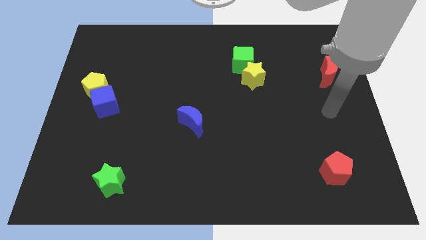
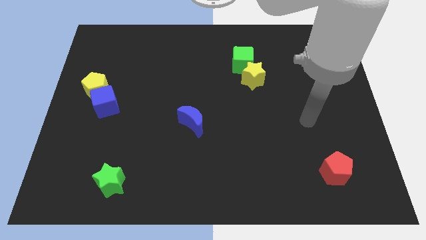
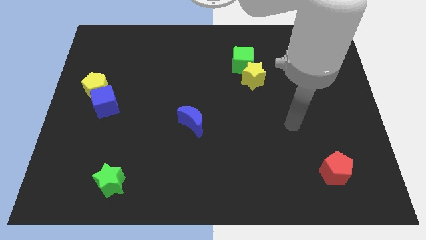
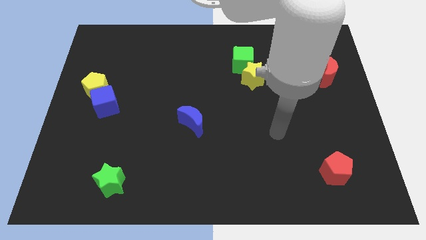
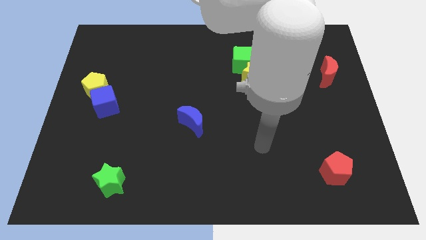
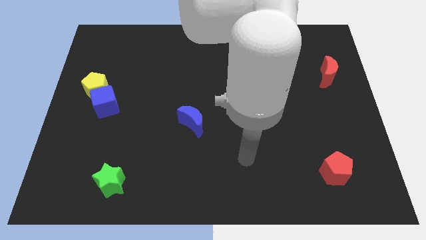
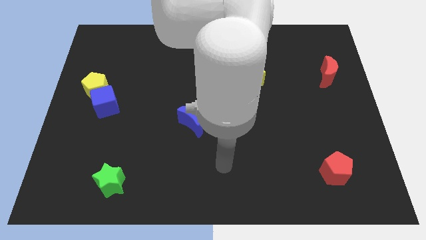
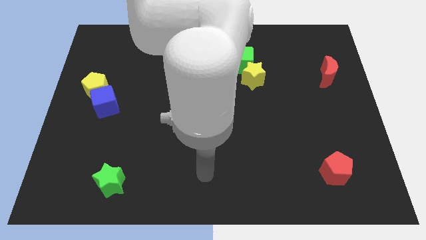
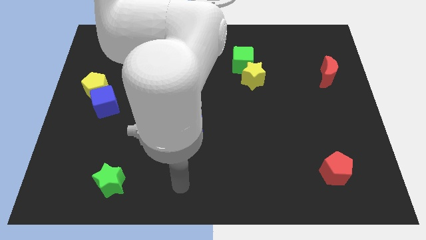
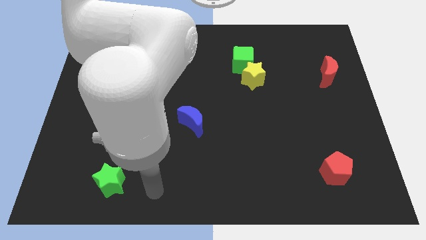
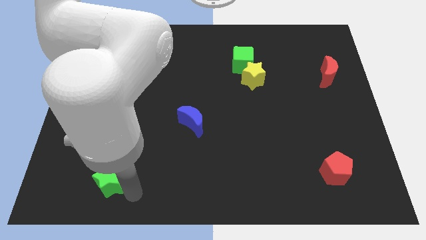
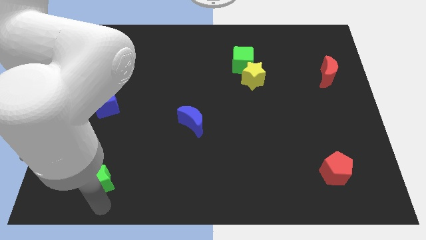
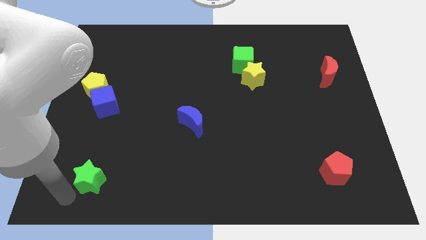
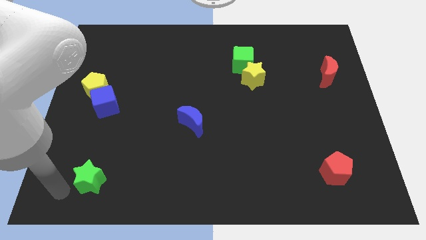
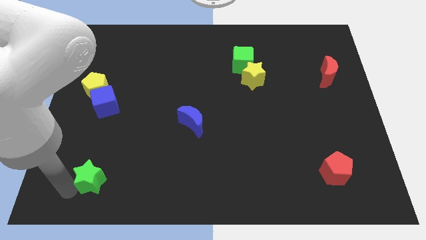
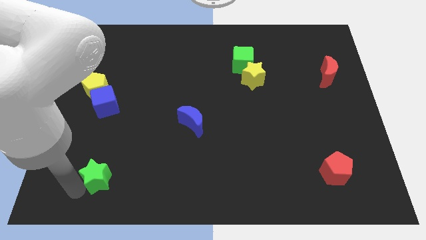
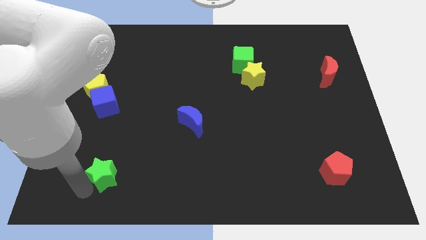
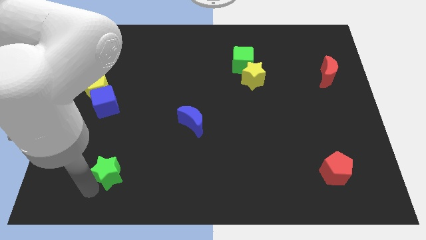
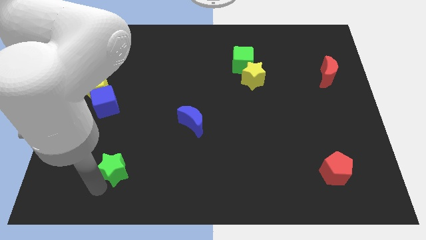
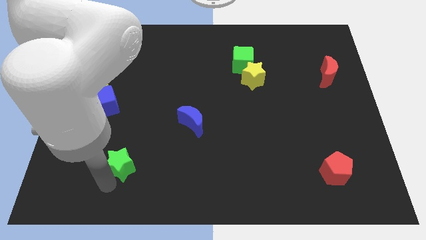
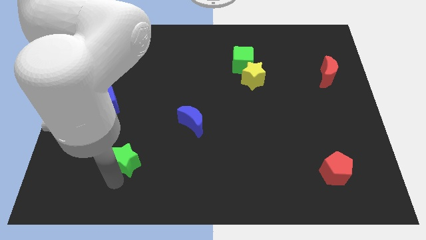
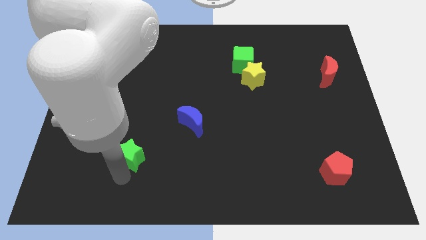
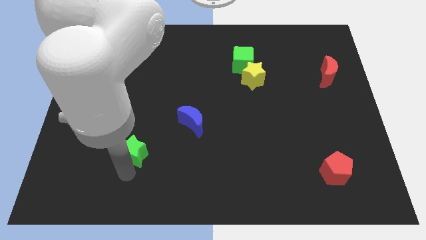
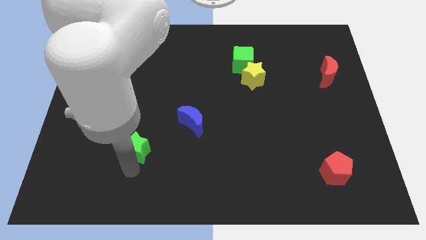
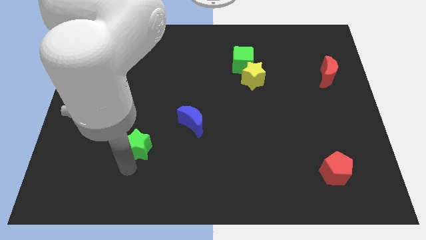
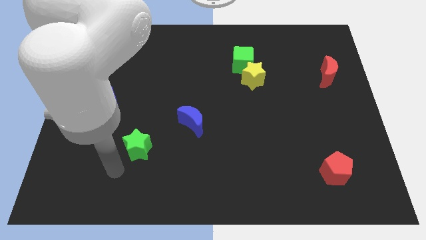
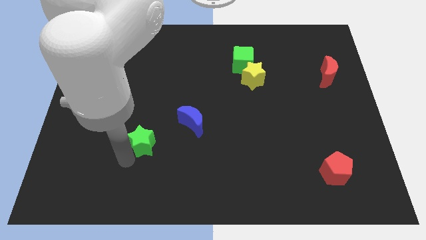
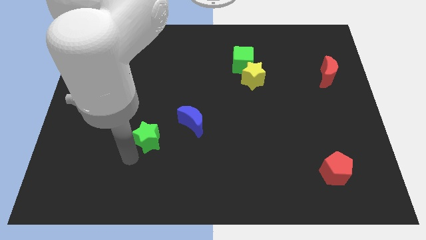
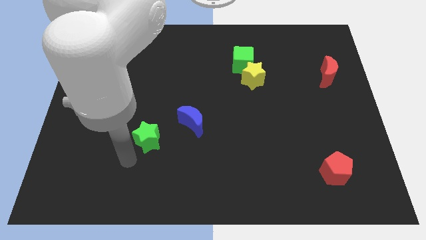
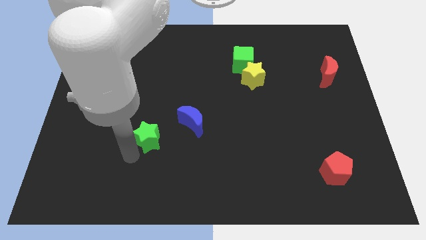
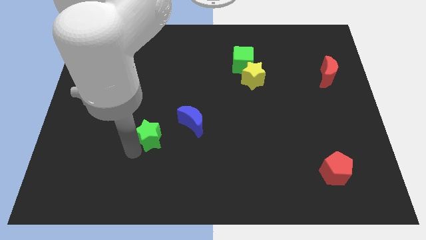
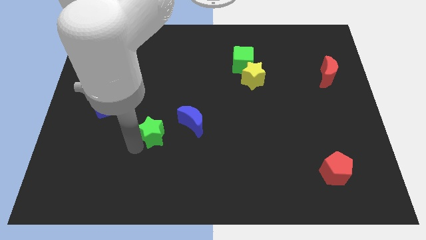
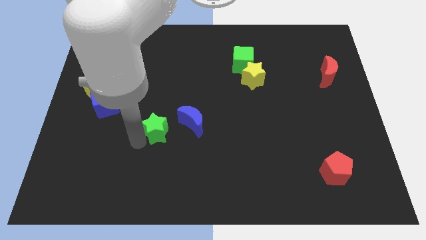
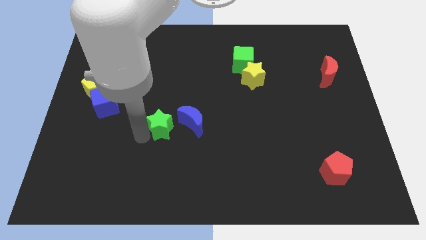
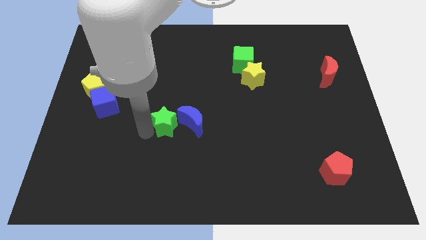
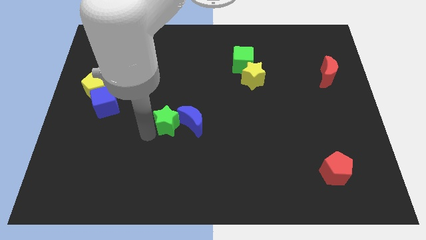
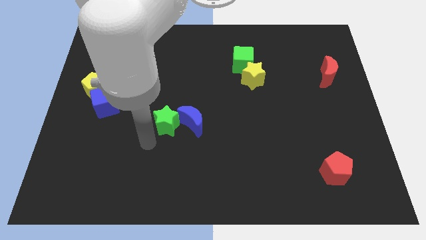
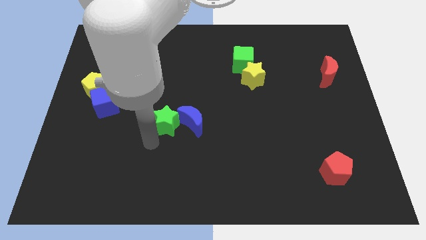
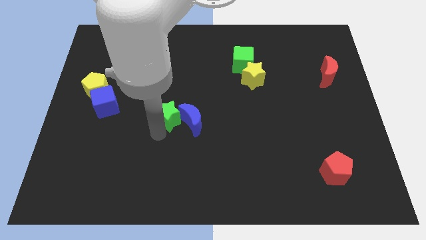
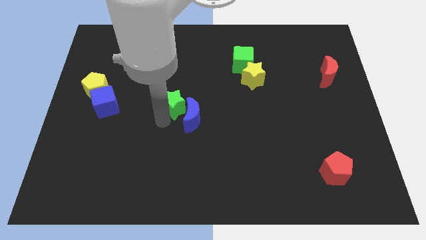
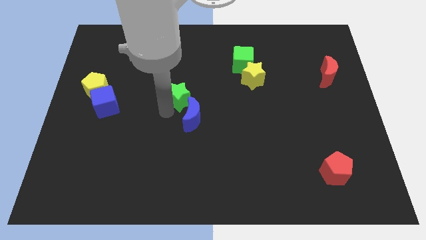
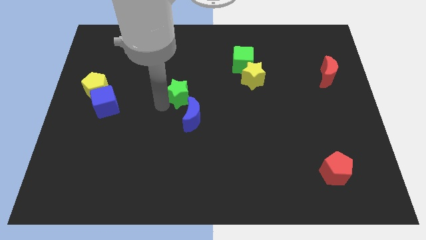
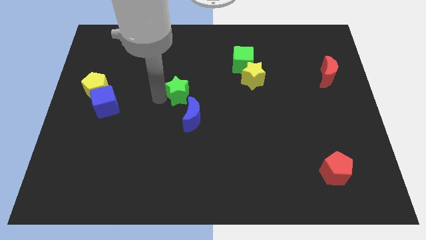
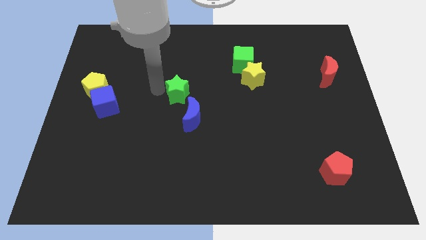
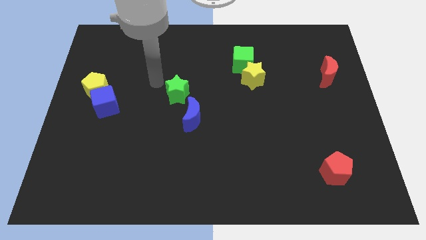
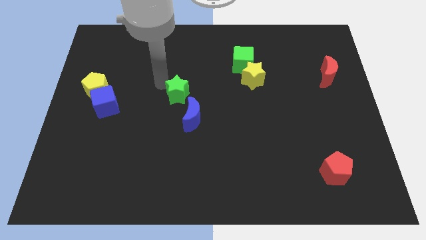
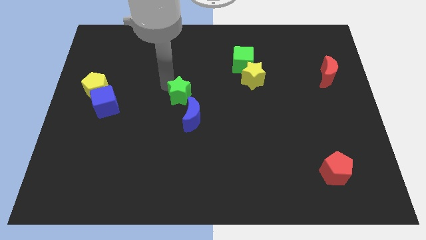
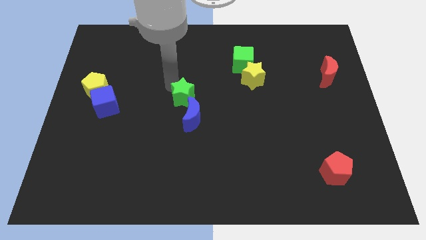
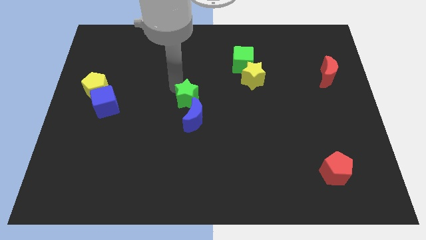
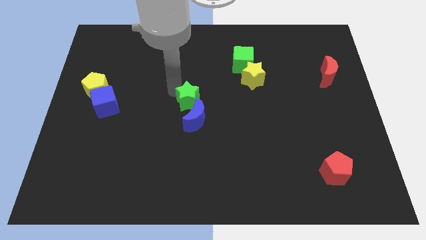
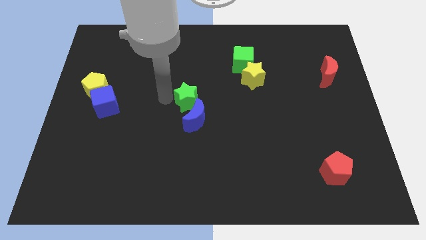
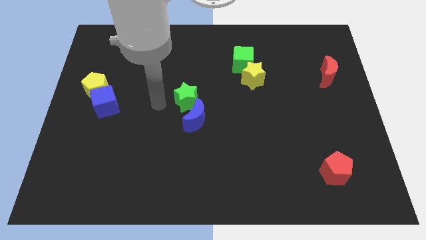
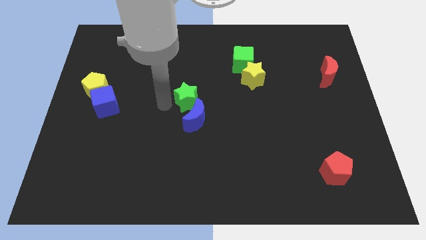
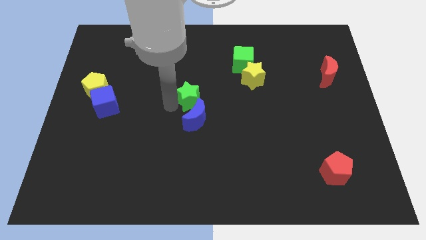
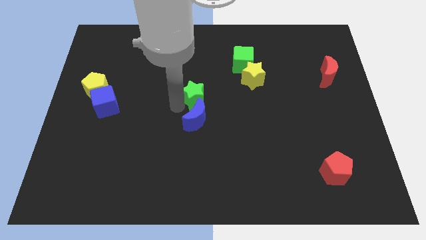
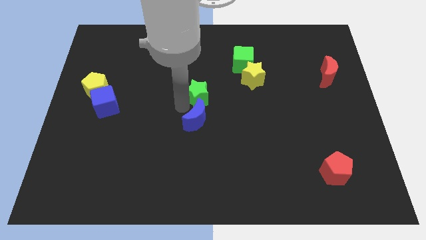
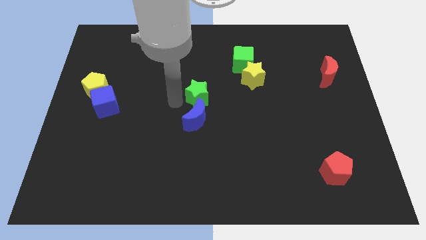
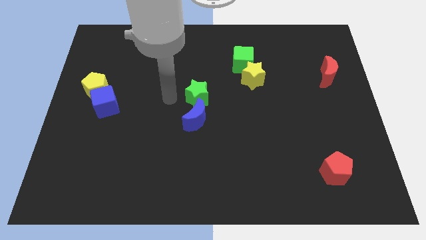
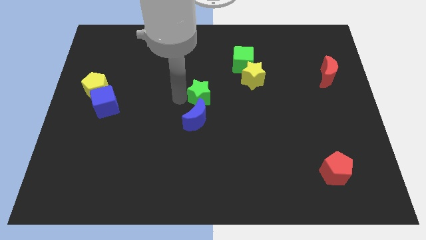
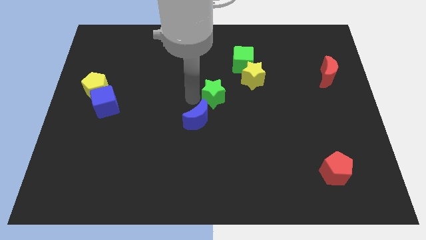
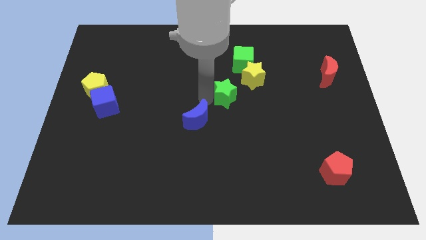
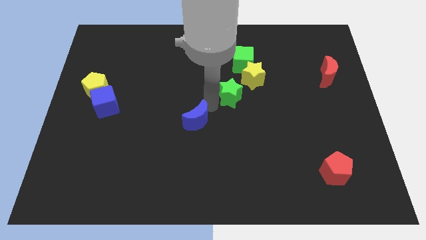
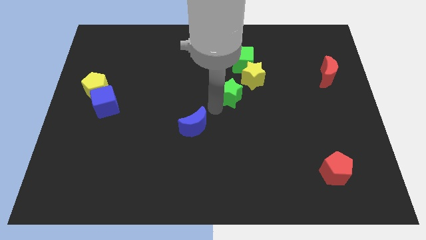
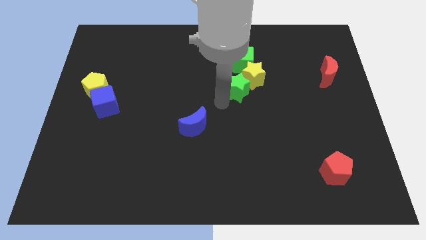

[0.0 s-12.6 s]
push the green star to the yellow star
